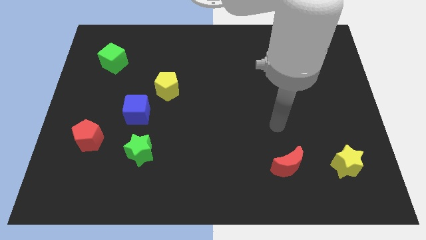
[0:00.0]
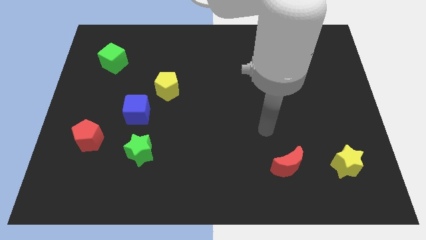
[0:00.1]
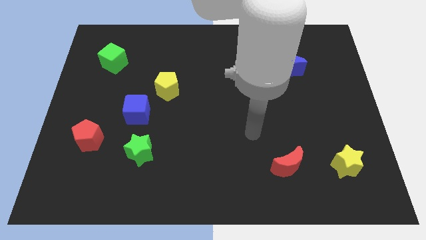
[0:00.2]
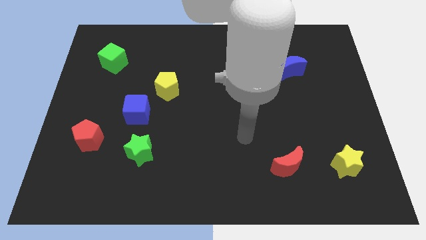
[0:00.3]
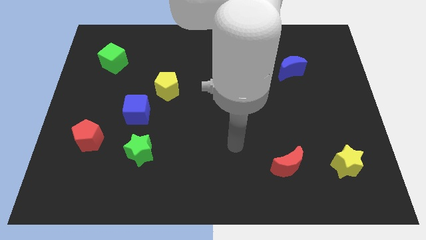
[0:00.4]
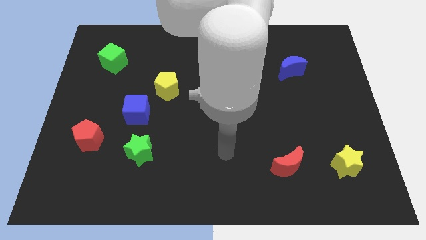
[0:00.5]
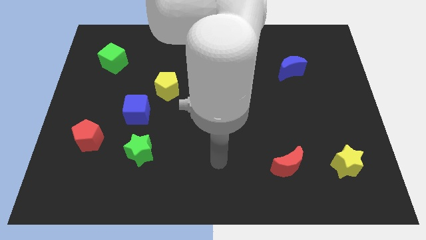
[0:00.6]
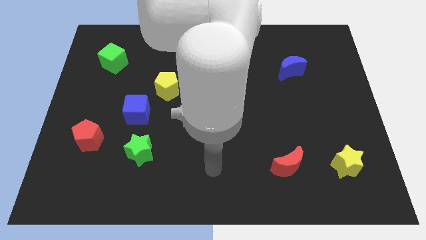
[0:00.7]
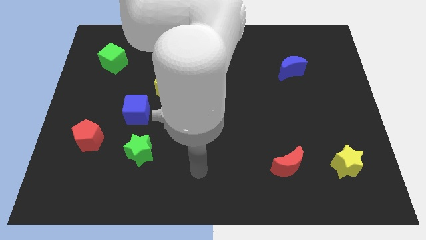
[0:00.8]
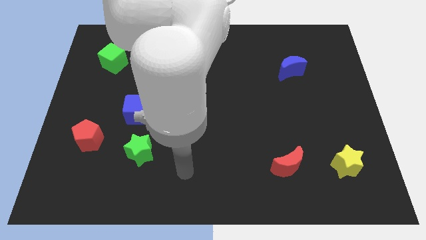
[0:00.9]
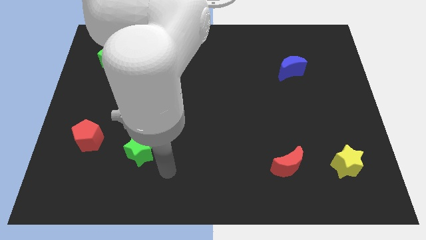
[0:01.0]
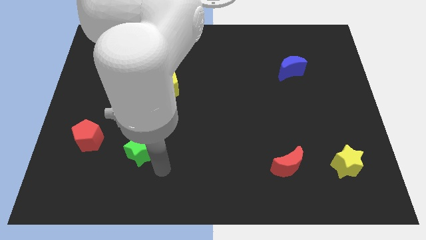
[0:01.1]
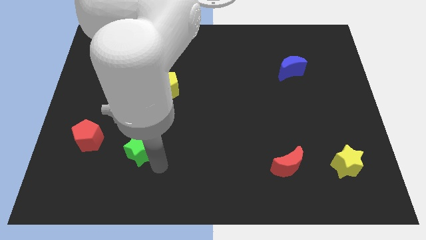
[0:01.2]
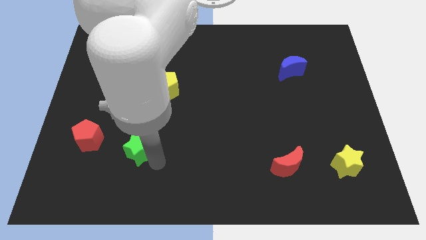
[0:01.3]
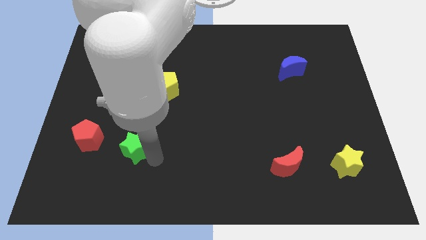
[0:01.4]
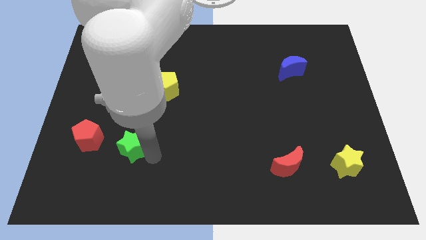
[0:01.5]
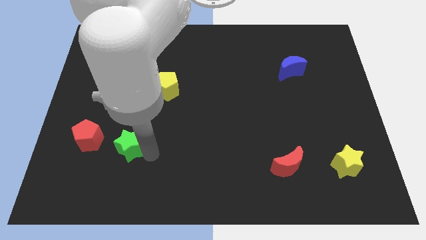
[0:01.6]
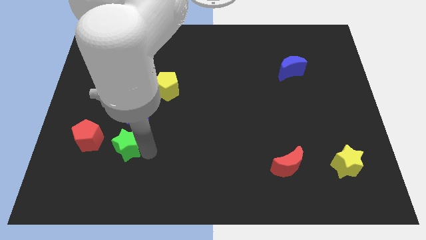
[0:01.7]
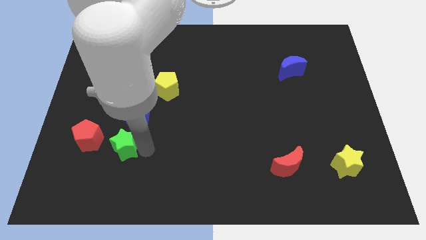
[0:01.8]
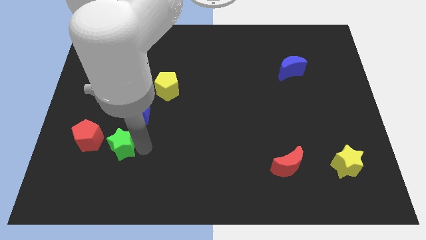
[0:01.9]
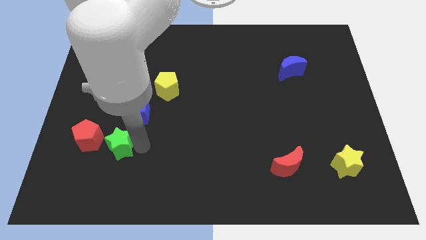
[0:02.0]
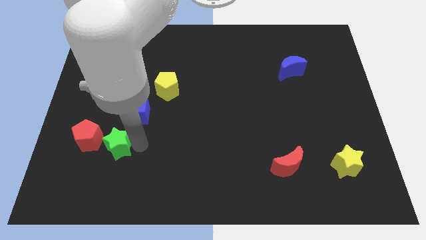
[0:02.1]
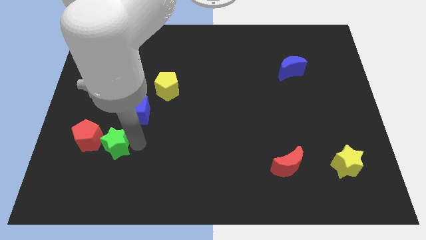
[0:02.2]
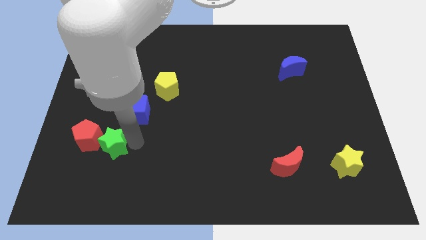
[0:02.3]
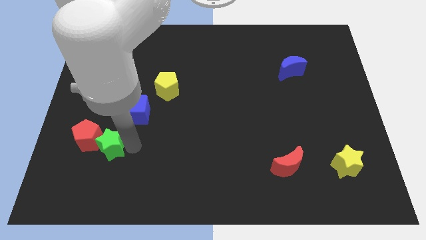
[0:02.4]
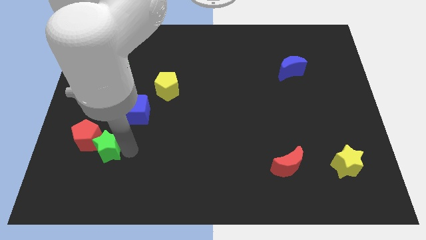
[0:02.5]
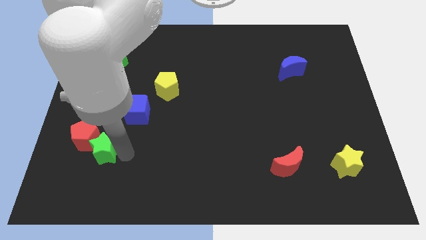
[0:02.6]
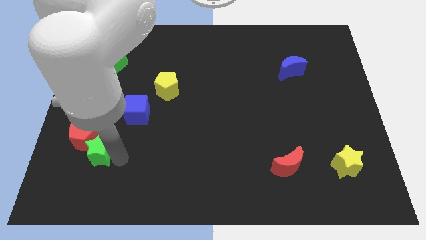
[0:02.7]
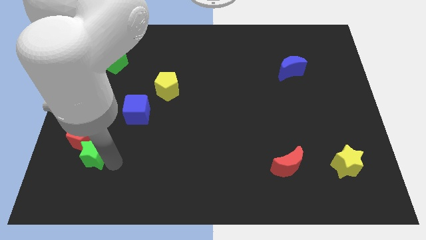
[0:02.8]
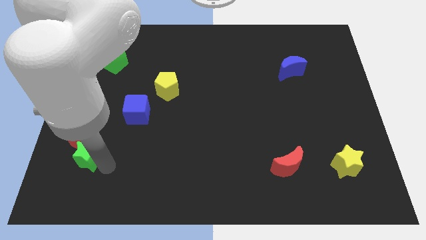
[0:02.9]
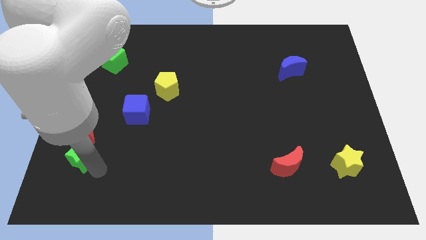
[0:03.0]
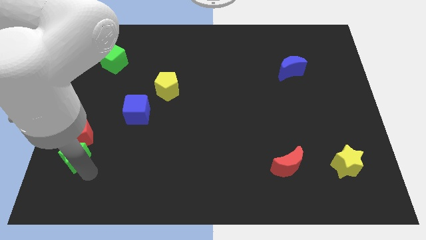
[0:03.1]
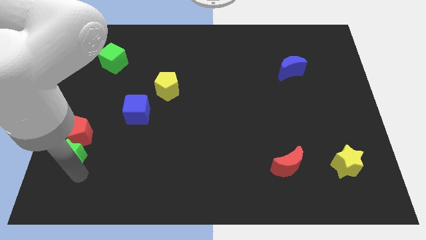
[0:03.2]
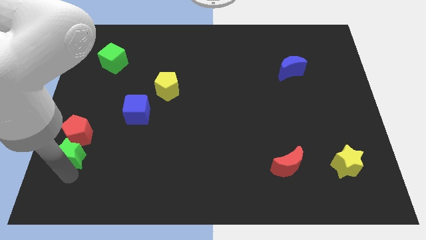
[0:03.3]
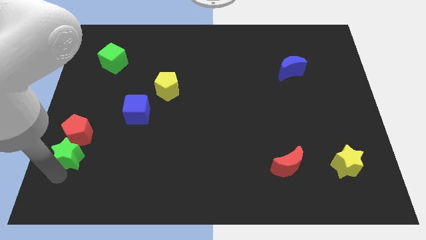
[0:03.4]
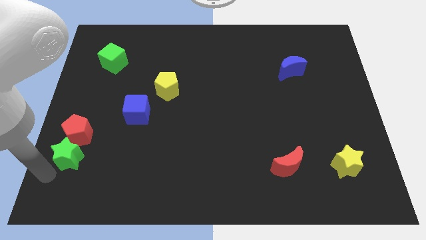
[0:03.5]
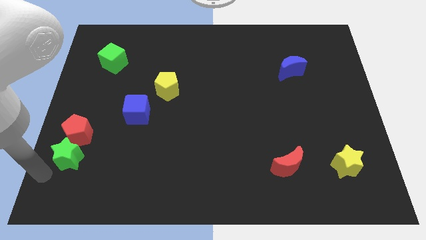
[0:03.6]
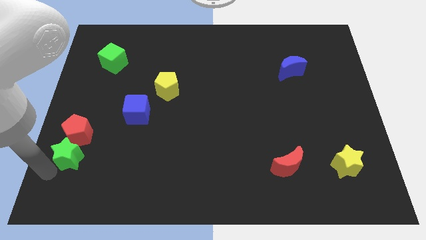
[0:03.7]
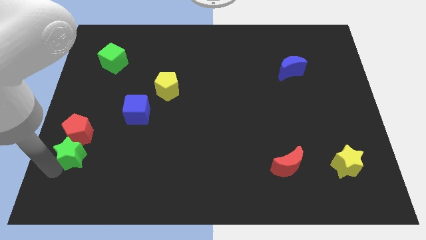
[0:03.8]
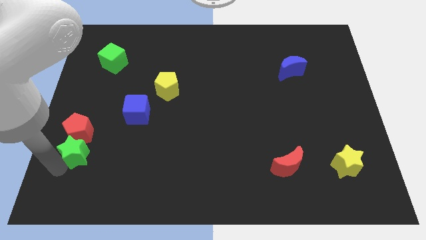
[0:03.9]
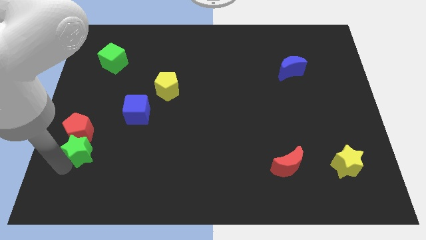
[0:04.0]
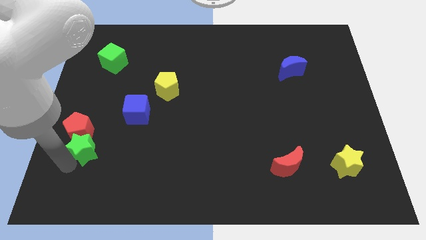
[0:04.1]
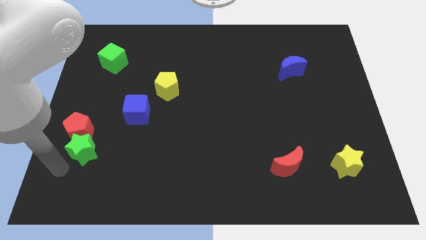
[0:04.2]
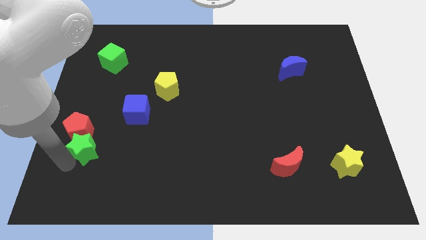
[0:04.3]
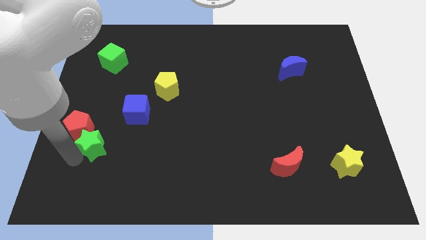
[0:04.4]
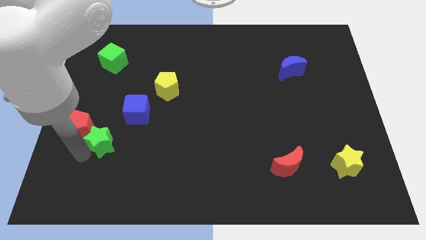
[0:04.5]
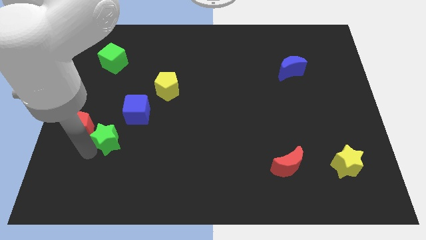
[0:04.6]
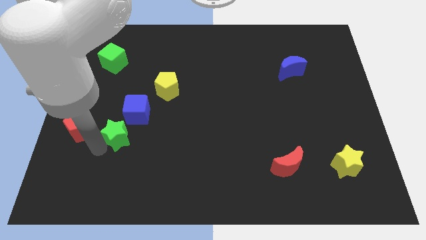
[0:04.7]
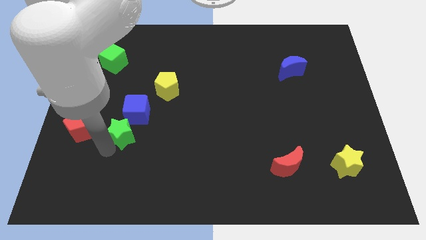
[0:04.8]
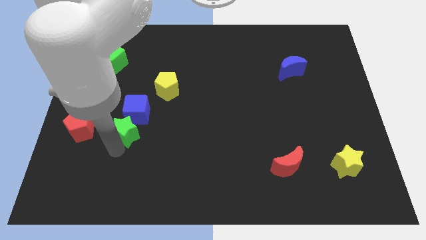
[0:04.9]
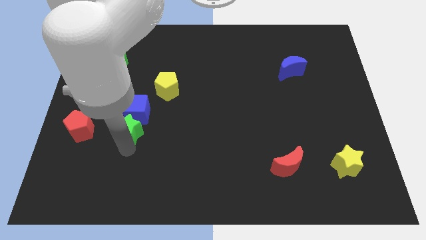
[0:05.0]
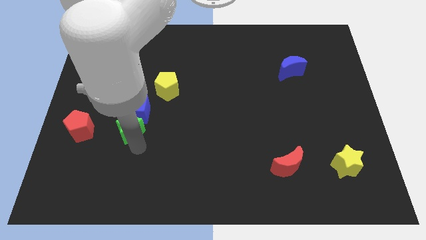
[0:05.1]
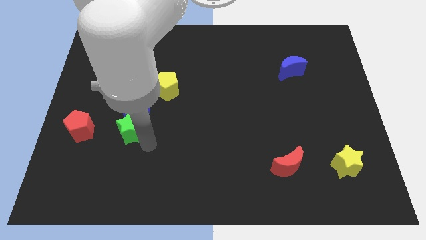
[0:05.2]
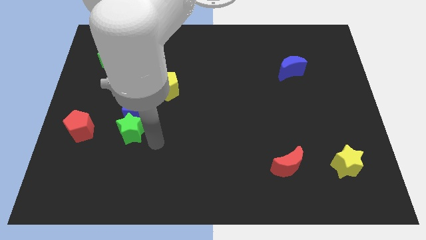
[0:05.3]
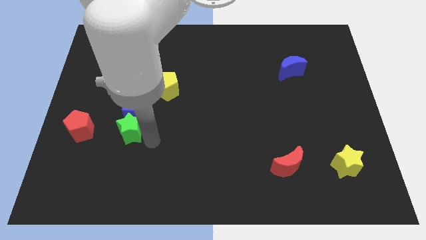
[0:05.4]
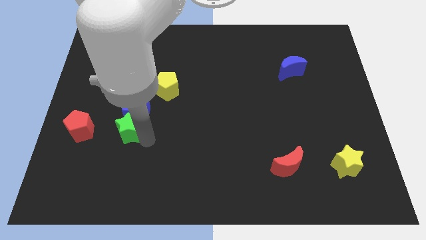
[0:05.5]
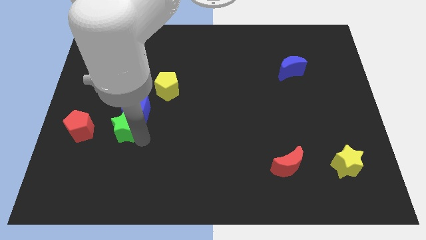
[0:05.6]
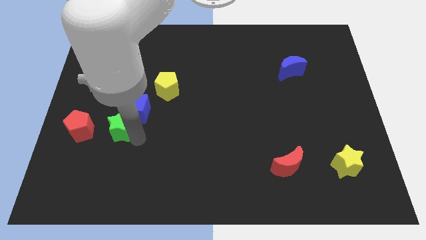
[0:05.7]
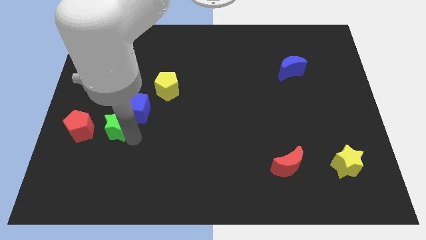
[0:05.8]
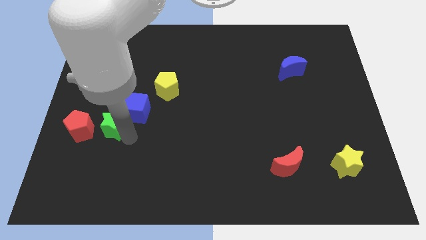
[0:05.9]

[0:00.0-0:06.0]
put the green star just left of the blue cube

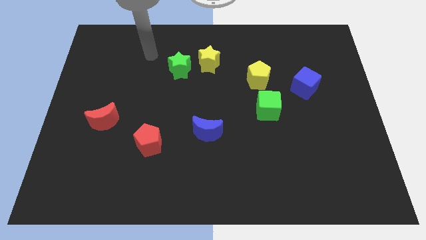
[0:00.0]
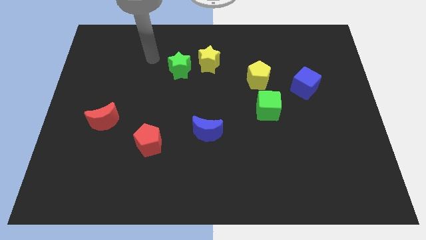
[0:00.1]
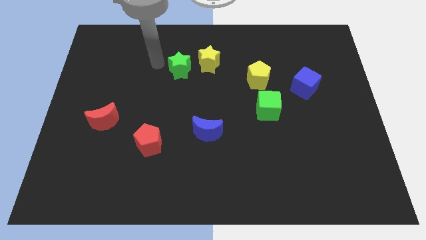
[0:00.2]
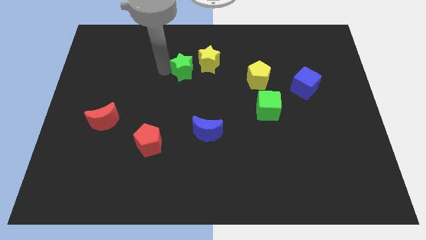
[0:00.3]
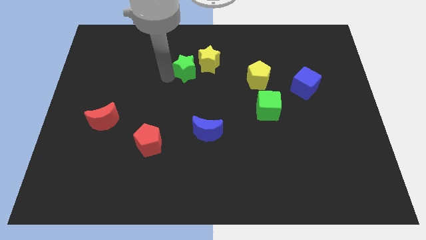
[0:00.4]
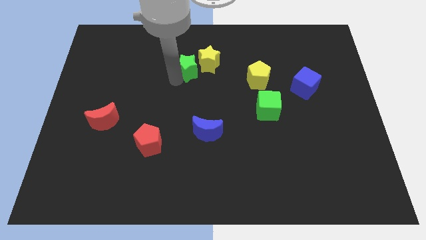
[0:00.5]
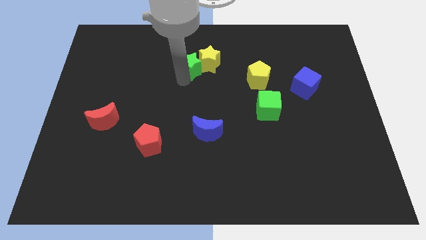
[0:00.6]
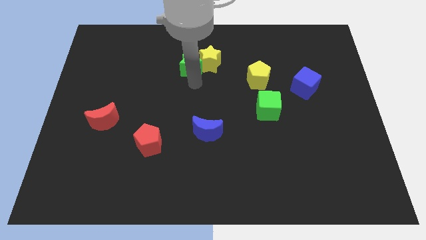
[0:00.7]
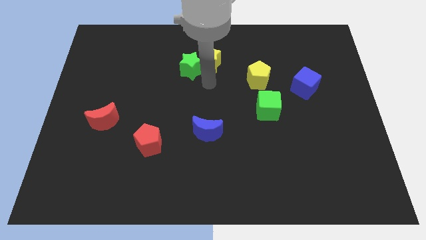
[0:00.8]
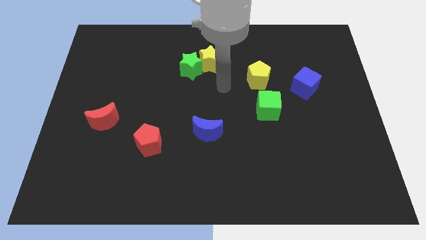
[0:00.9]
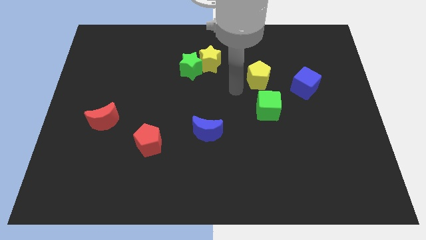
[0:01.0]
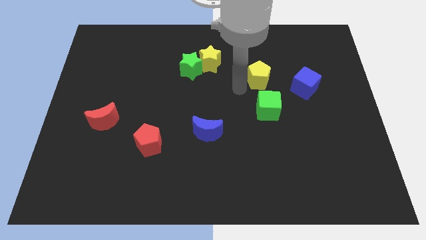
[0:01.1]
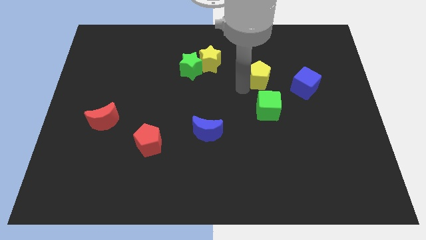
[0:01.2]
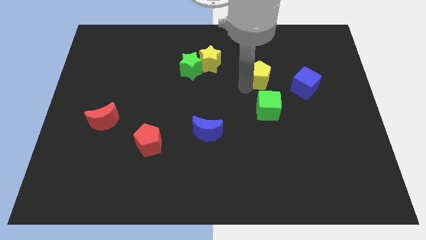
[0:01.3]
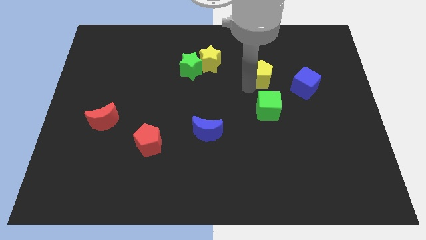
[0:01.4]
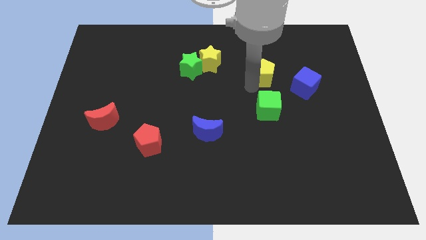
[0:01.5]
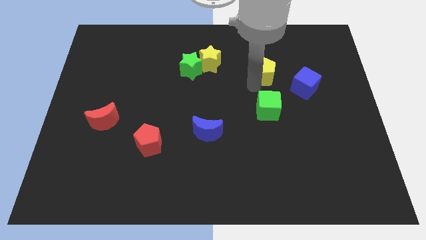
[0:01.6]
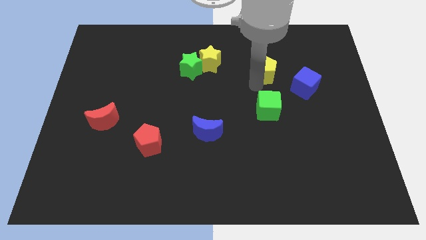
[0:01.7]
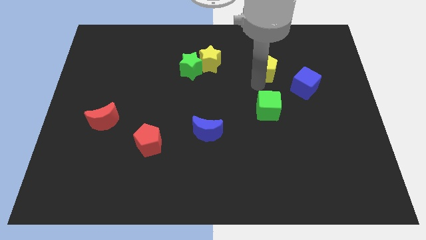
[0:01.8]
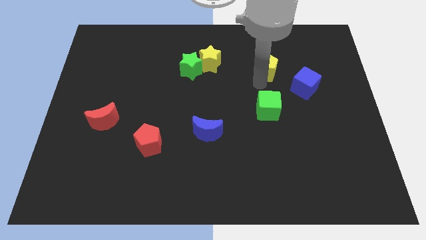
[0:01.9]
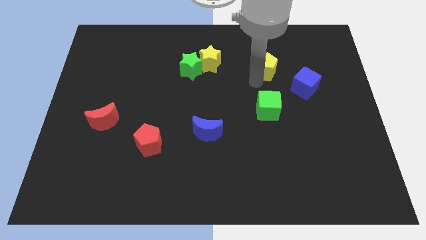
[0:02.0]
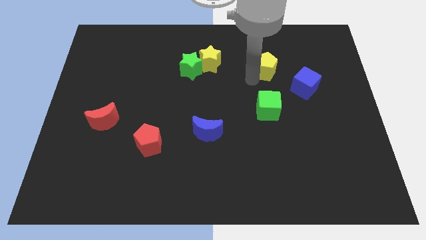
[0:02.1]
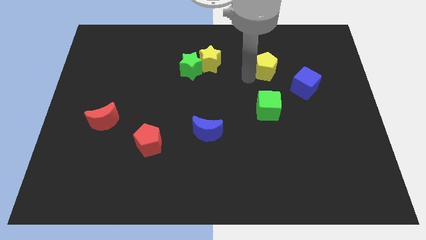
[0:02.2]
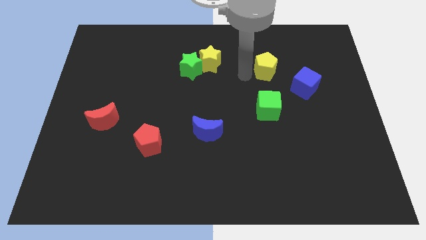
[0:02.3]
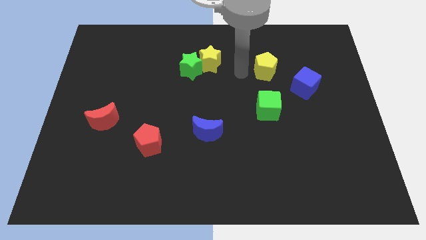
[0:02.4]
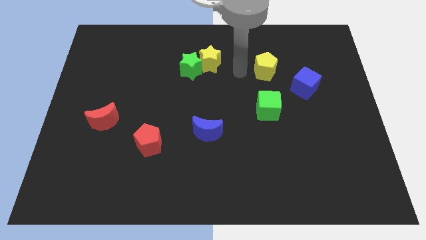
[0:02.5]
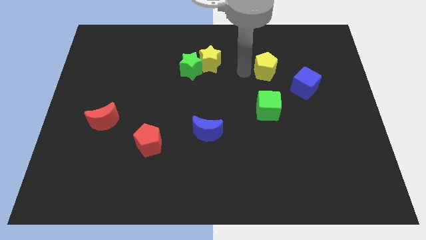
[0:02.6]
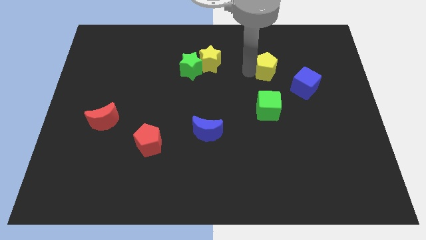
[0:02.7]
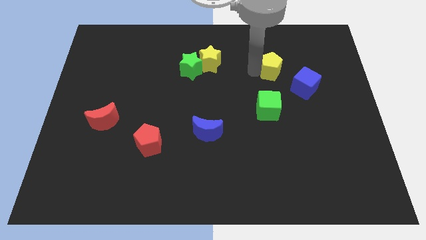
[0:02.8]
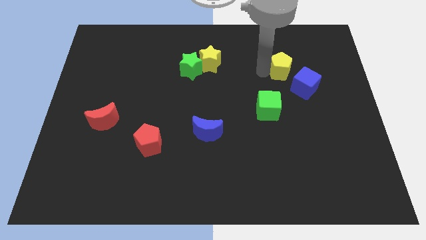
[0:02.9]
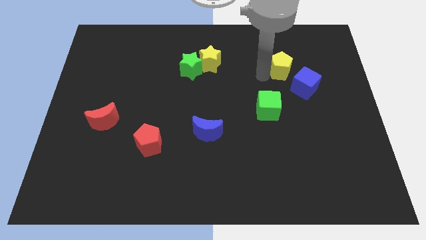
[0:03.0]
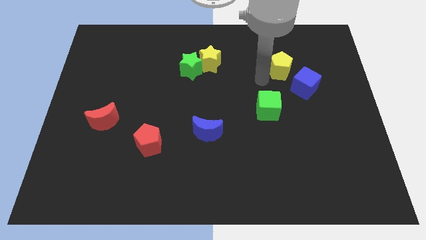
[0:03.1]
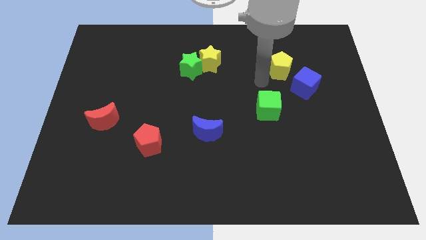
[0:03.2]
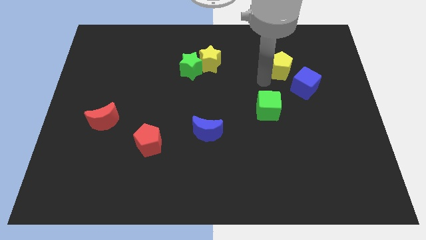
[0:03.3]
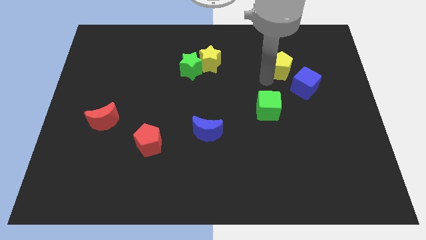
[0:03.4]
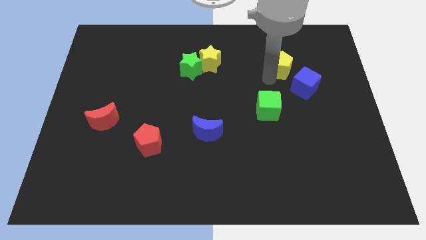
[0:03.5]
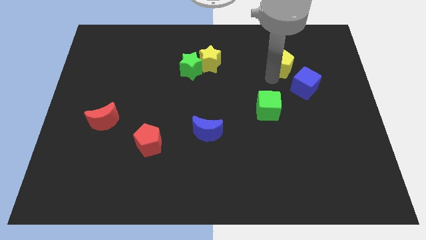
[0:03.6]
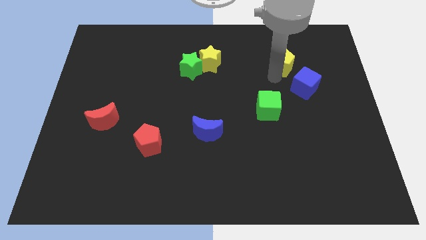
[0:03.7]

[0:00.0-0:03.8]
put the yellow pentagon above the blue cube
